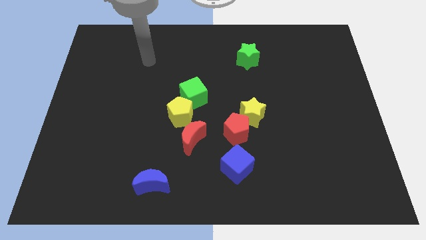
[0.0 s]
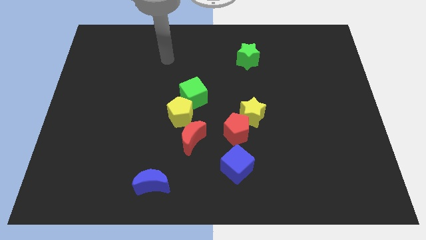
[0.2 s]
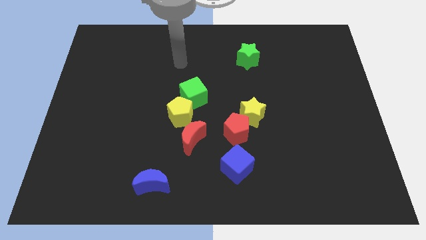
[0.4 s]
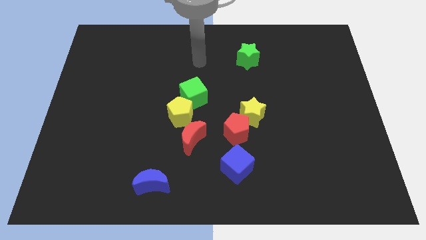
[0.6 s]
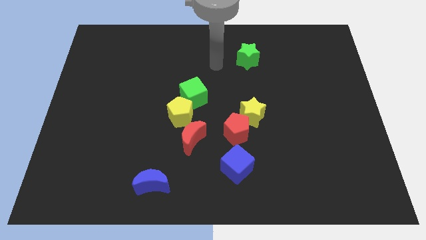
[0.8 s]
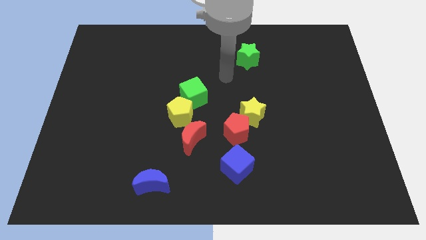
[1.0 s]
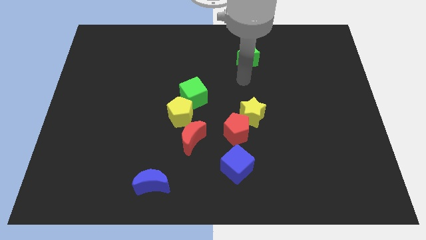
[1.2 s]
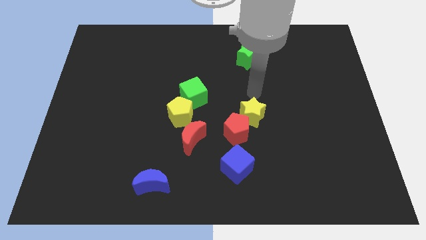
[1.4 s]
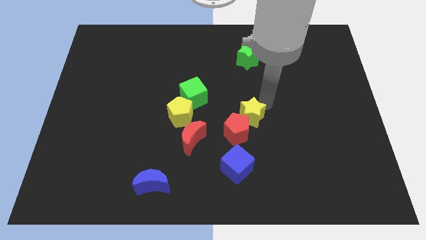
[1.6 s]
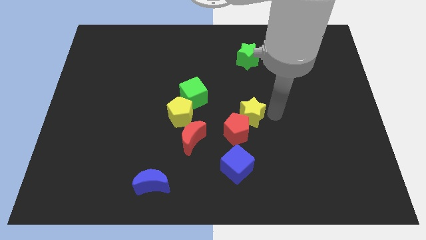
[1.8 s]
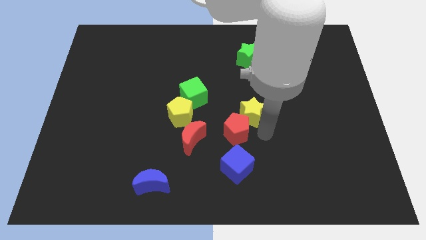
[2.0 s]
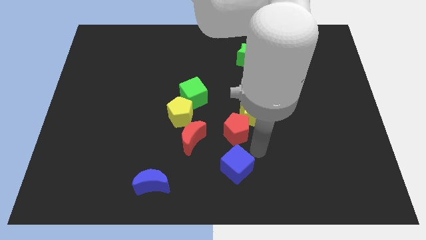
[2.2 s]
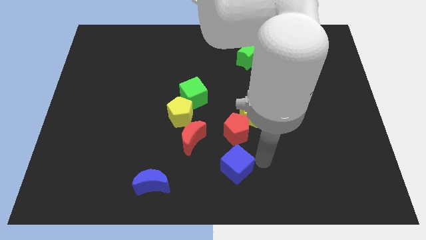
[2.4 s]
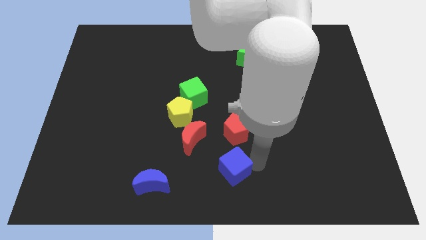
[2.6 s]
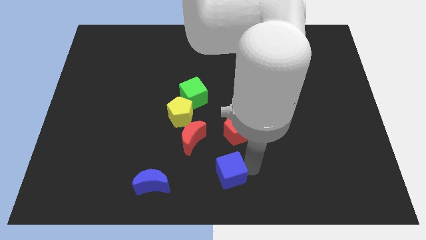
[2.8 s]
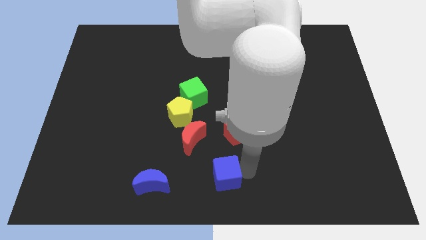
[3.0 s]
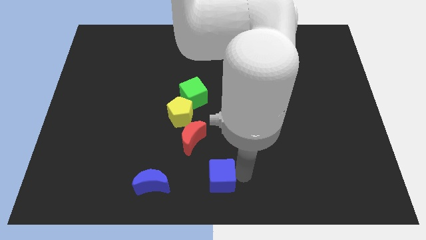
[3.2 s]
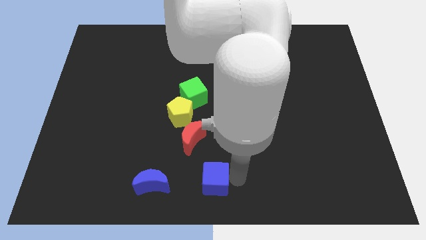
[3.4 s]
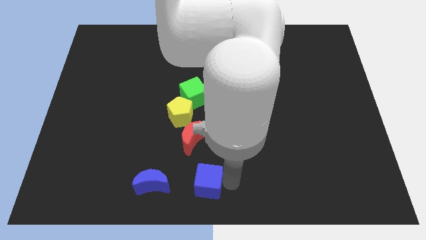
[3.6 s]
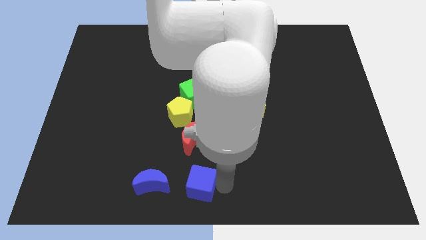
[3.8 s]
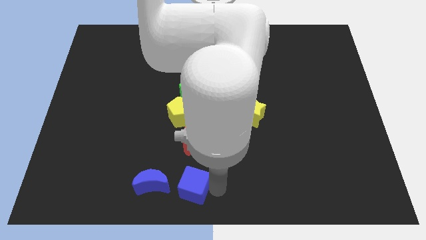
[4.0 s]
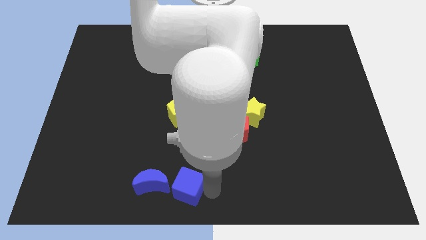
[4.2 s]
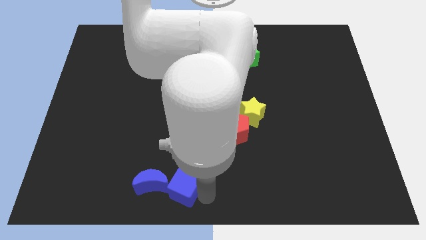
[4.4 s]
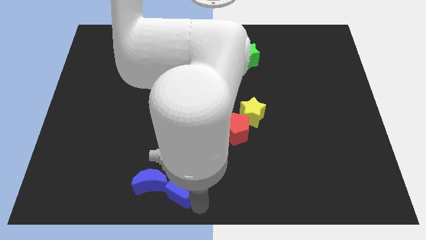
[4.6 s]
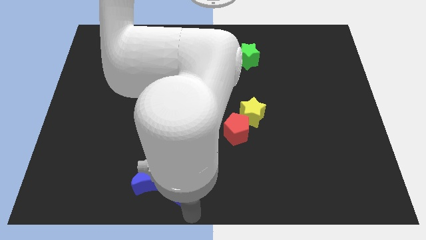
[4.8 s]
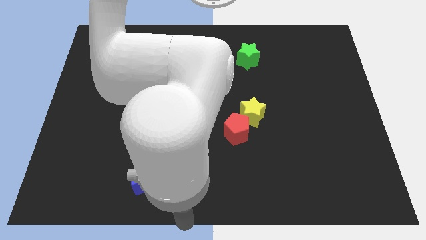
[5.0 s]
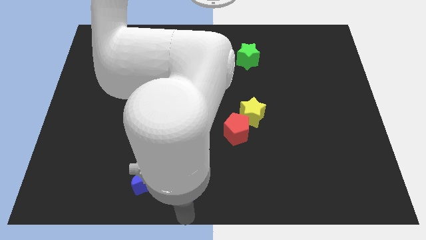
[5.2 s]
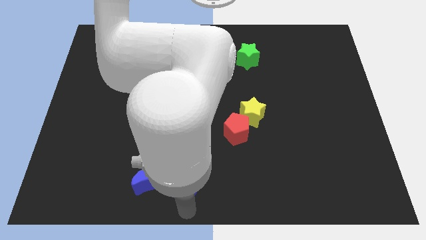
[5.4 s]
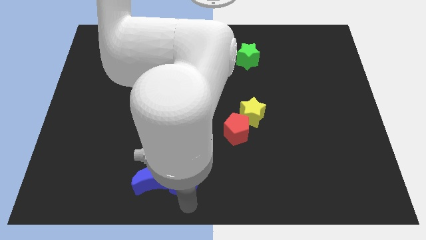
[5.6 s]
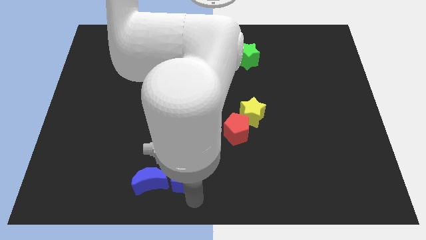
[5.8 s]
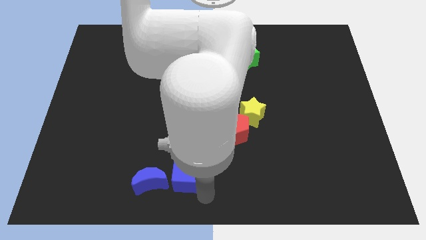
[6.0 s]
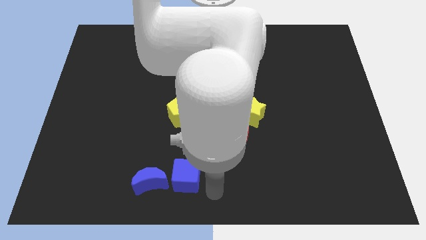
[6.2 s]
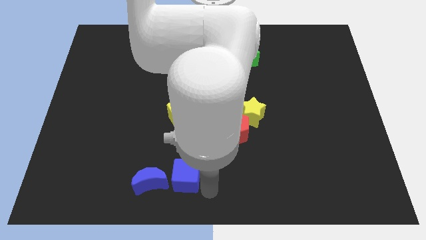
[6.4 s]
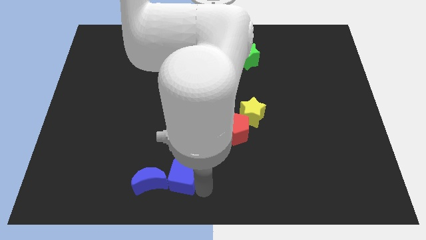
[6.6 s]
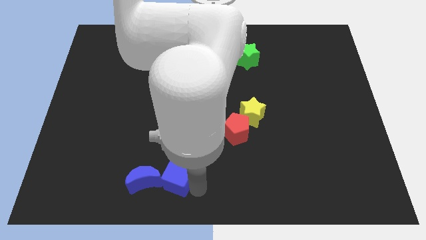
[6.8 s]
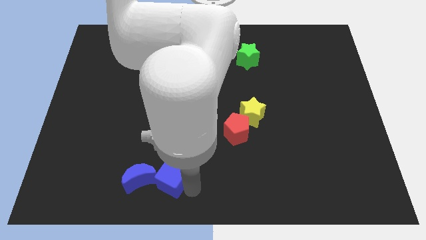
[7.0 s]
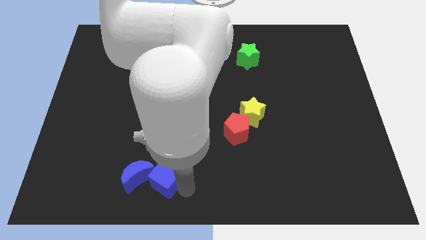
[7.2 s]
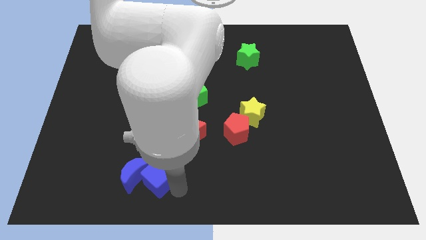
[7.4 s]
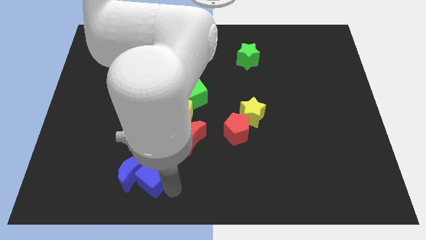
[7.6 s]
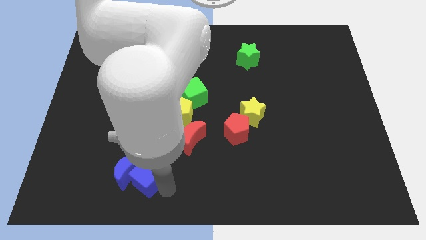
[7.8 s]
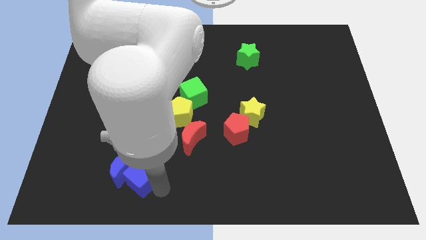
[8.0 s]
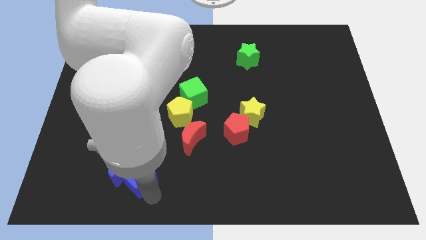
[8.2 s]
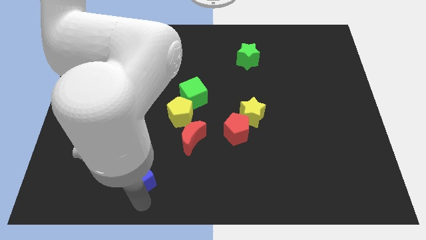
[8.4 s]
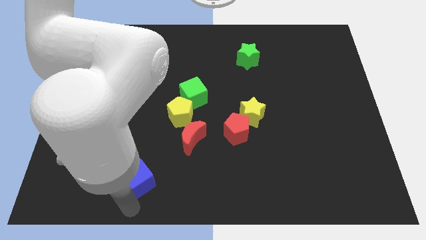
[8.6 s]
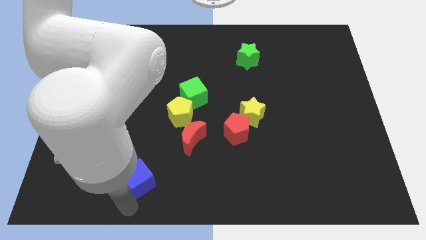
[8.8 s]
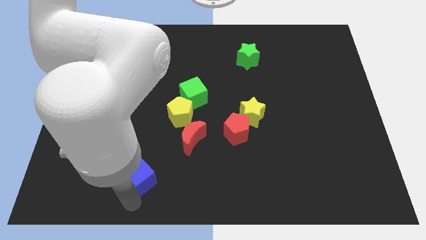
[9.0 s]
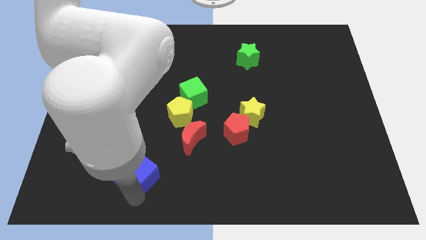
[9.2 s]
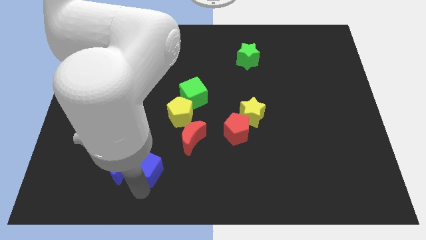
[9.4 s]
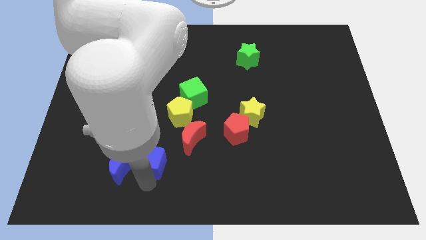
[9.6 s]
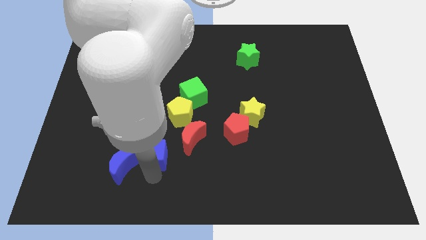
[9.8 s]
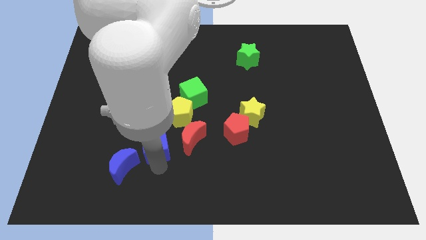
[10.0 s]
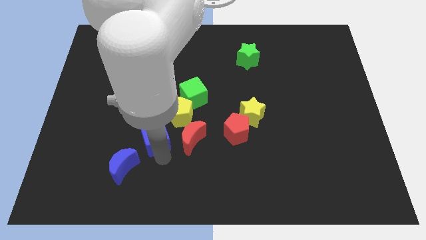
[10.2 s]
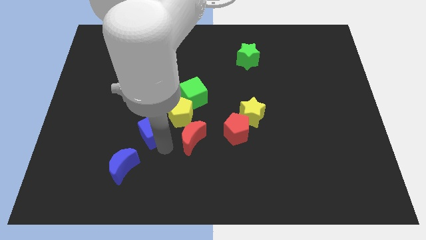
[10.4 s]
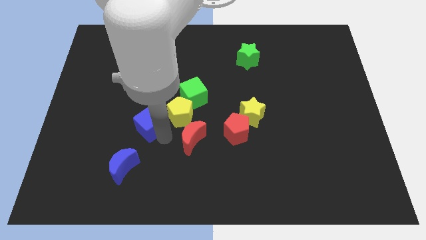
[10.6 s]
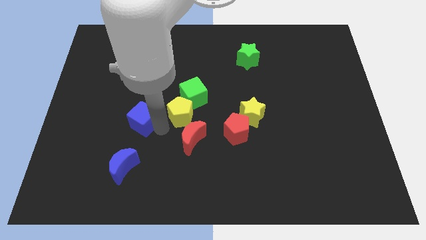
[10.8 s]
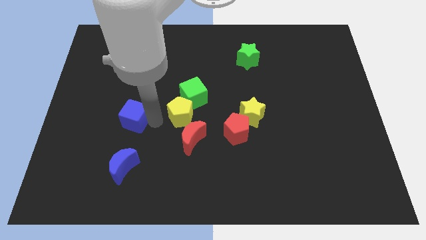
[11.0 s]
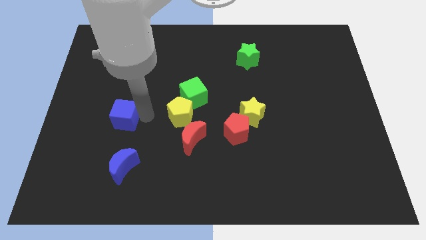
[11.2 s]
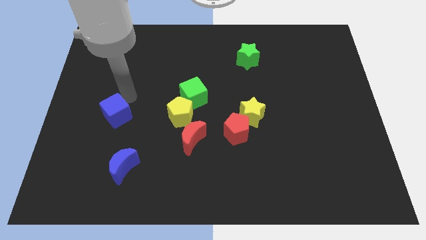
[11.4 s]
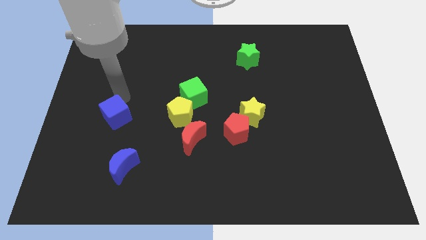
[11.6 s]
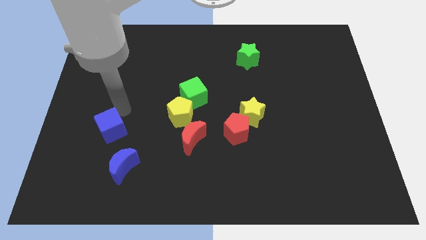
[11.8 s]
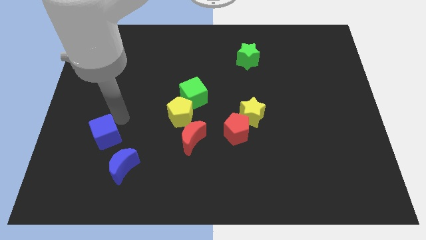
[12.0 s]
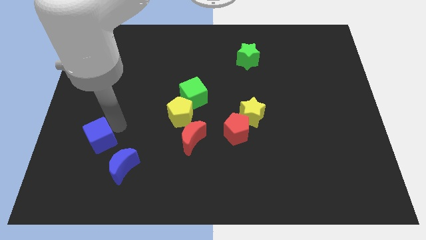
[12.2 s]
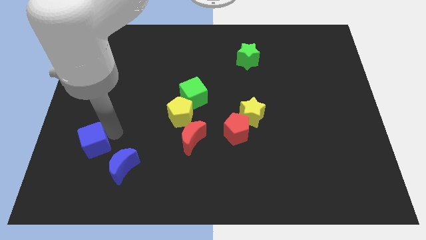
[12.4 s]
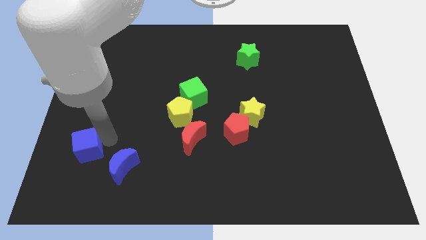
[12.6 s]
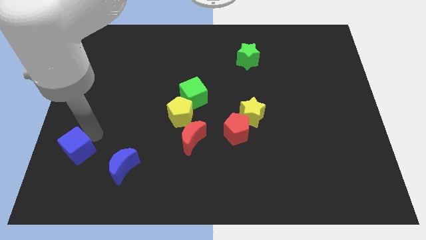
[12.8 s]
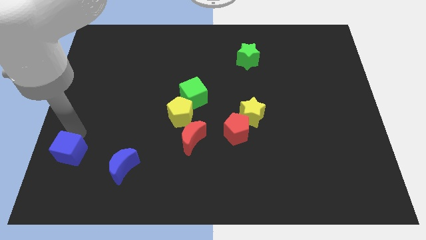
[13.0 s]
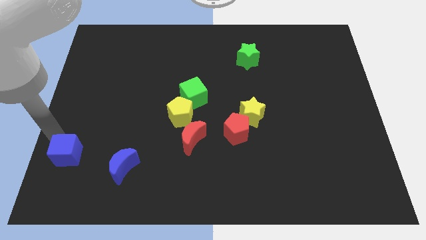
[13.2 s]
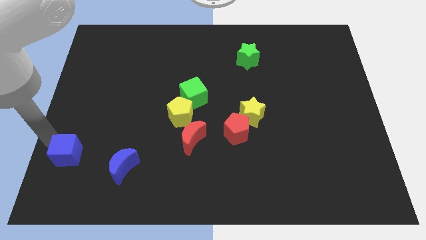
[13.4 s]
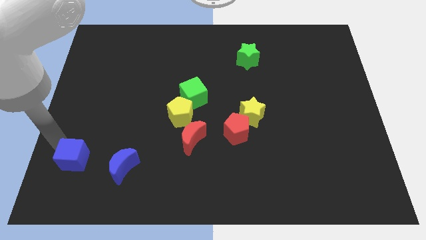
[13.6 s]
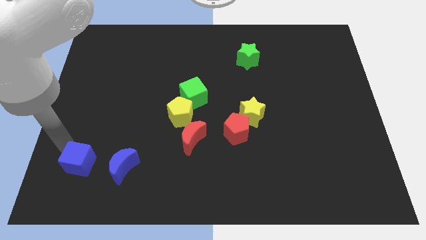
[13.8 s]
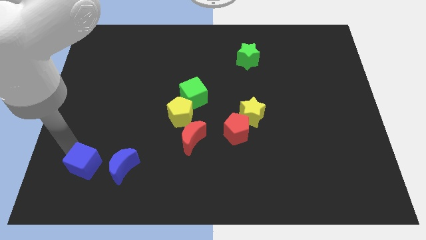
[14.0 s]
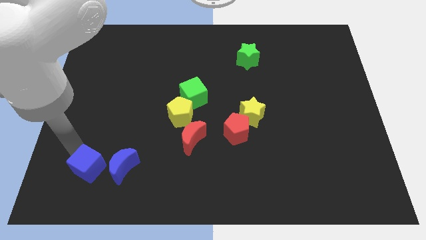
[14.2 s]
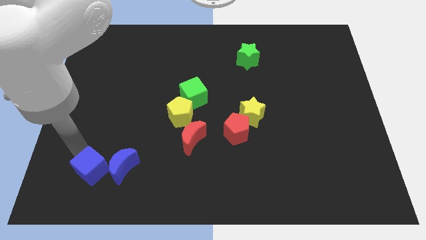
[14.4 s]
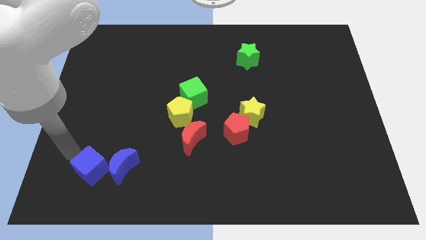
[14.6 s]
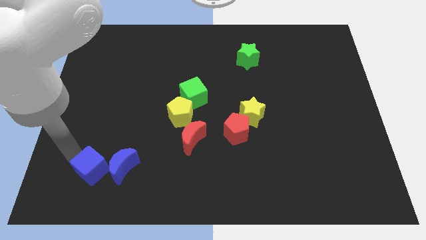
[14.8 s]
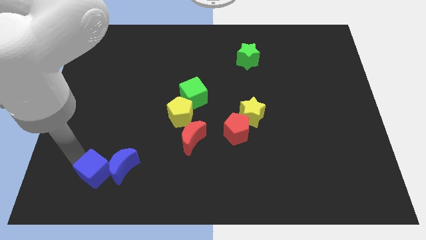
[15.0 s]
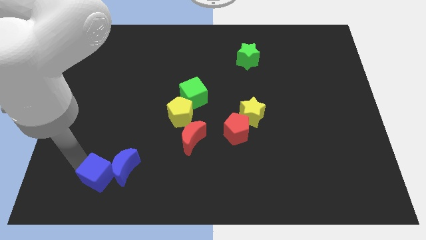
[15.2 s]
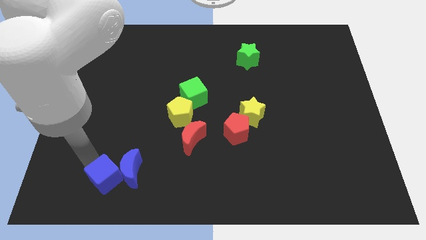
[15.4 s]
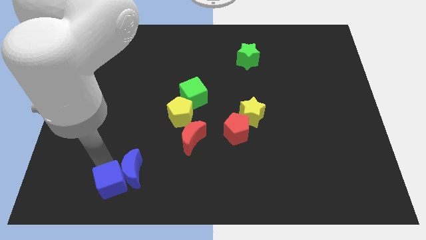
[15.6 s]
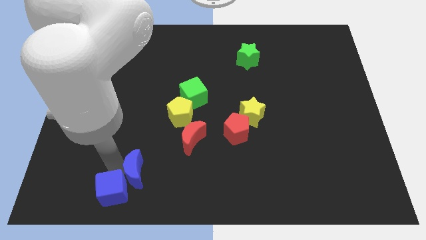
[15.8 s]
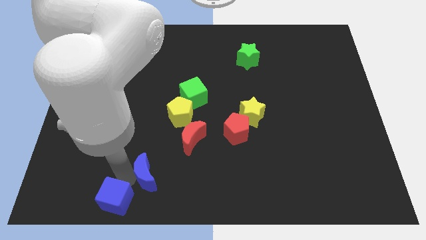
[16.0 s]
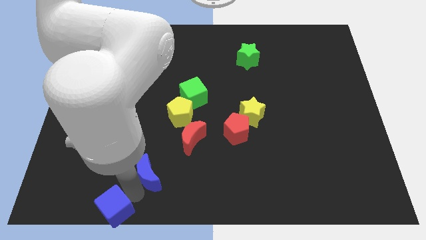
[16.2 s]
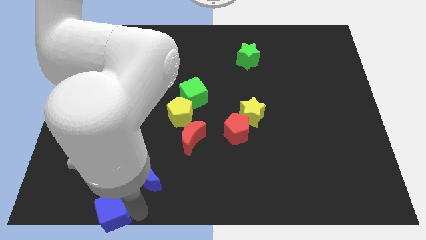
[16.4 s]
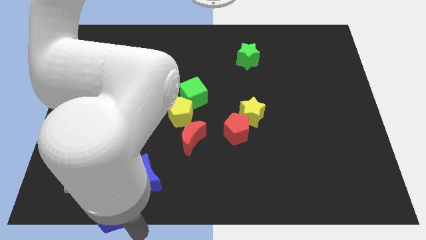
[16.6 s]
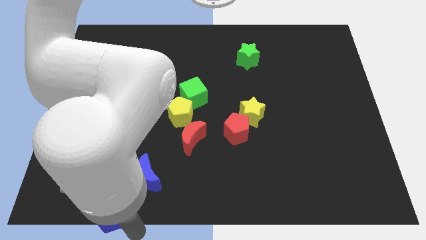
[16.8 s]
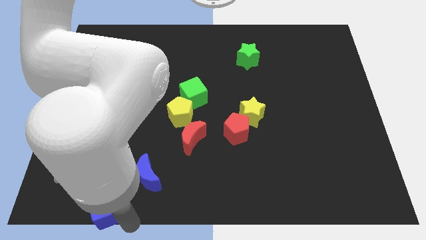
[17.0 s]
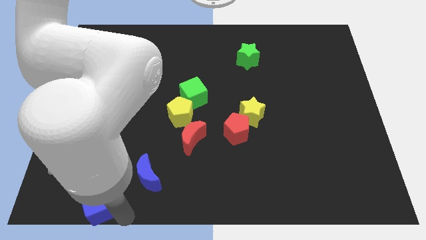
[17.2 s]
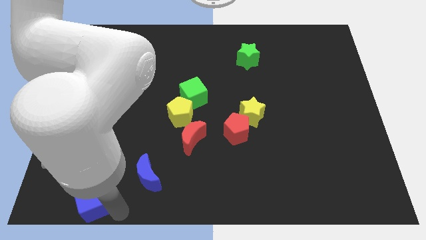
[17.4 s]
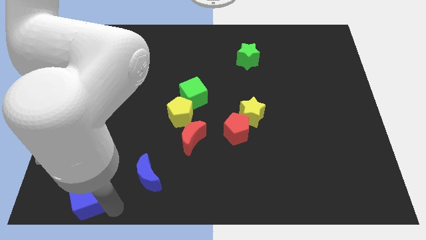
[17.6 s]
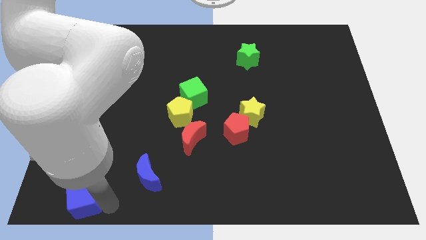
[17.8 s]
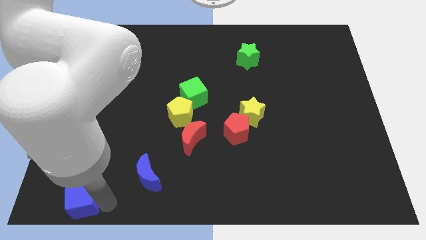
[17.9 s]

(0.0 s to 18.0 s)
move the blue cube to the lower left corner
